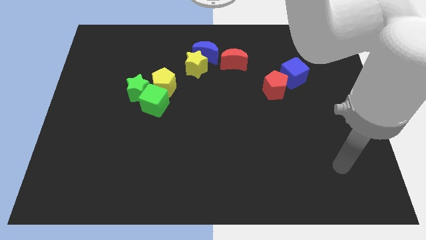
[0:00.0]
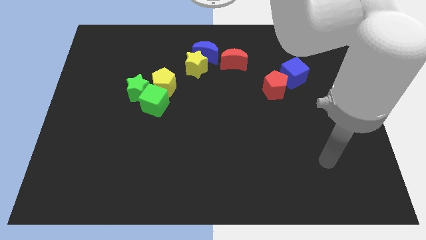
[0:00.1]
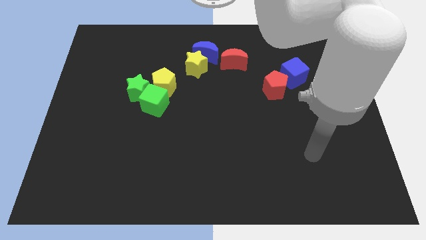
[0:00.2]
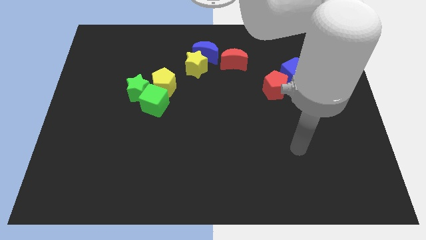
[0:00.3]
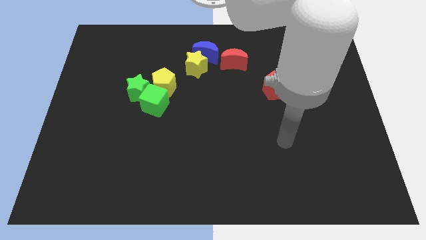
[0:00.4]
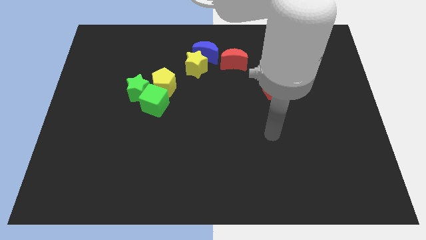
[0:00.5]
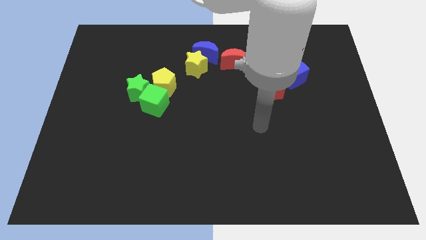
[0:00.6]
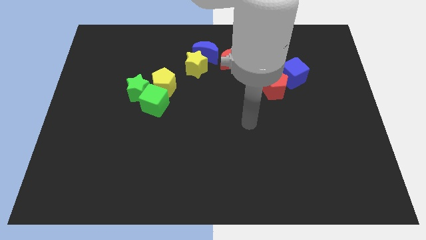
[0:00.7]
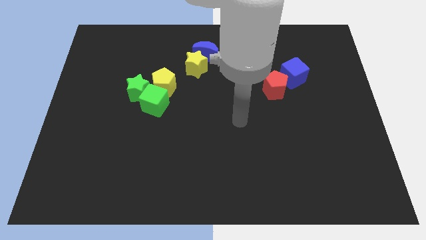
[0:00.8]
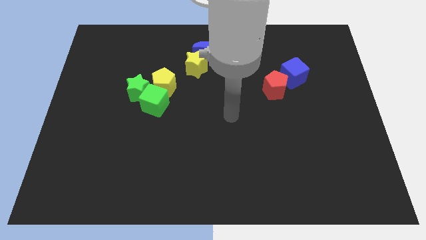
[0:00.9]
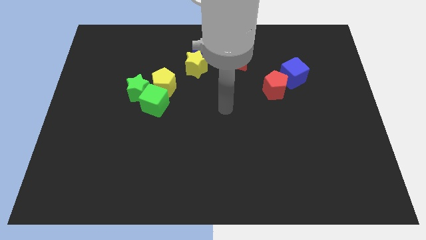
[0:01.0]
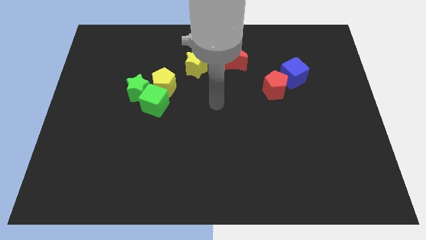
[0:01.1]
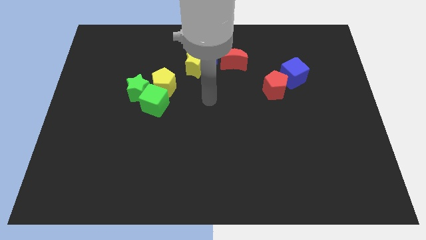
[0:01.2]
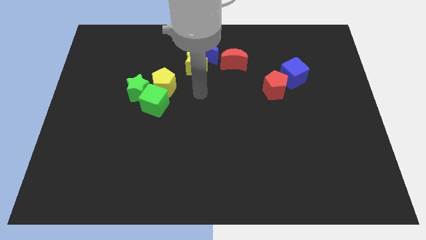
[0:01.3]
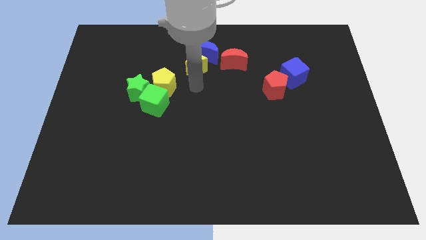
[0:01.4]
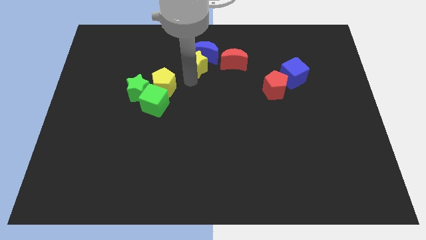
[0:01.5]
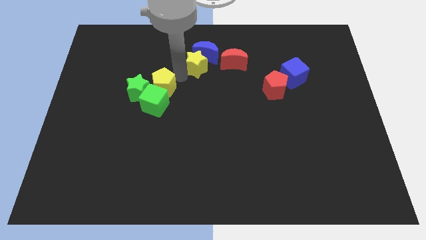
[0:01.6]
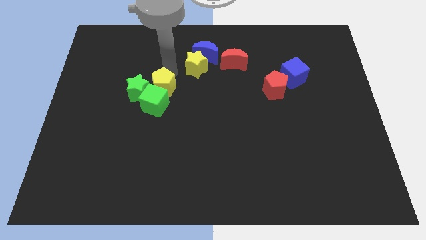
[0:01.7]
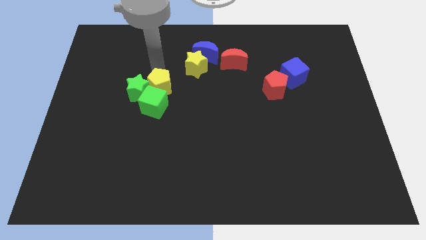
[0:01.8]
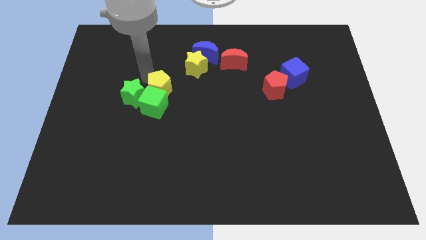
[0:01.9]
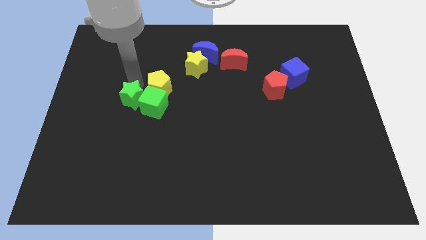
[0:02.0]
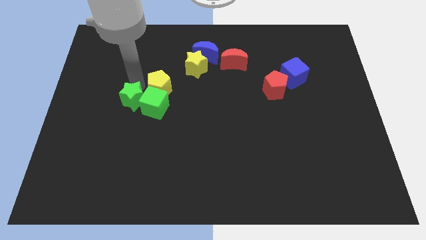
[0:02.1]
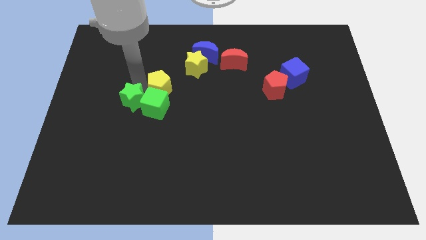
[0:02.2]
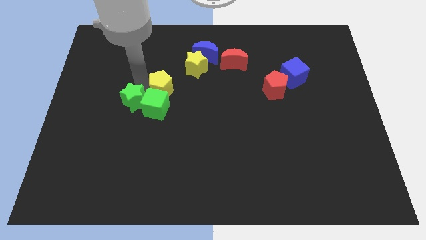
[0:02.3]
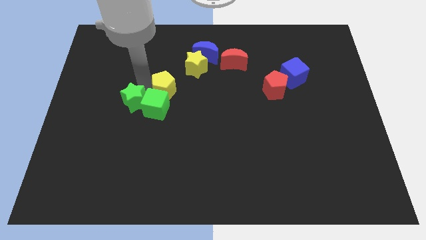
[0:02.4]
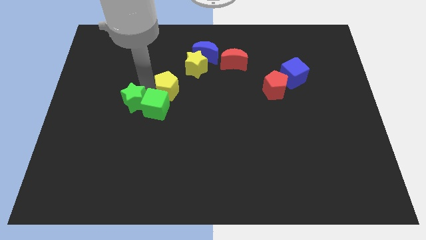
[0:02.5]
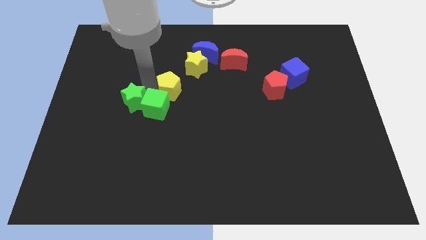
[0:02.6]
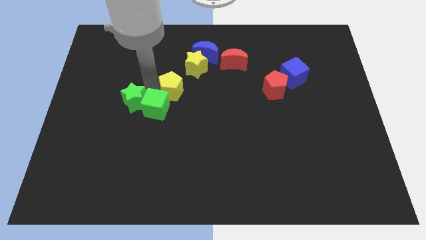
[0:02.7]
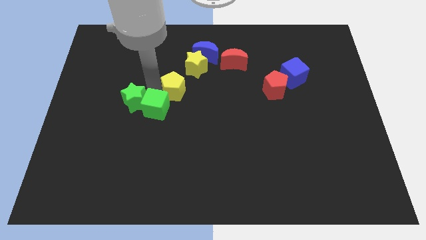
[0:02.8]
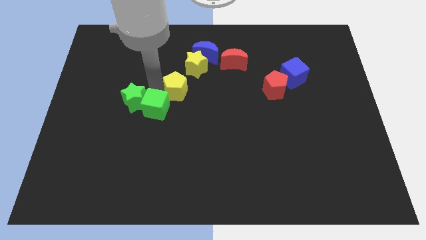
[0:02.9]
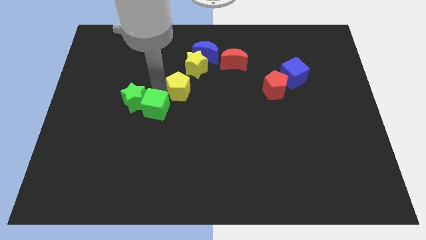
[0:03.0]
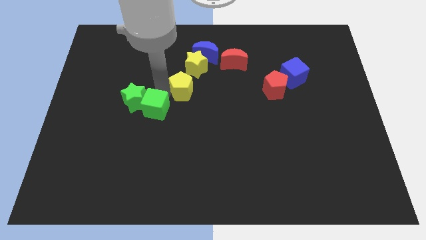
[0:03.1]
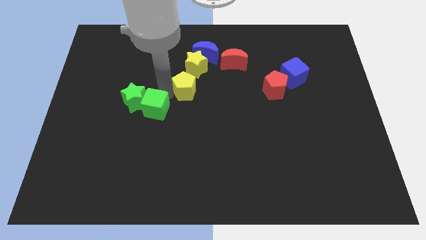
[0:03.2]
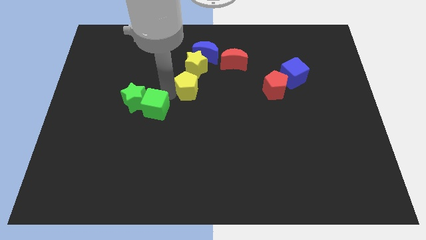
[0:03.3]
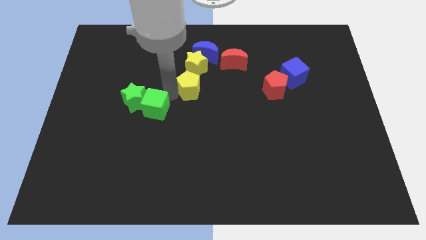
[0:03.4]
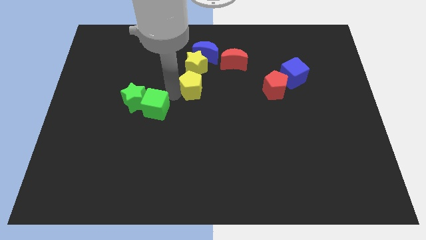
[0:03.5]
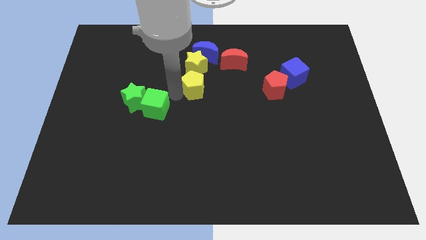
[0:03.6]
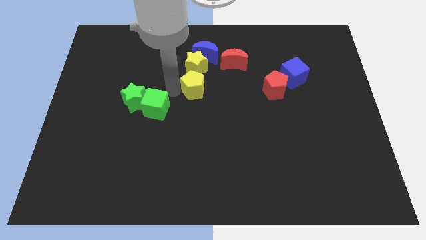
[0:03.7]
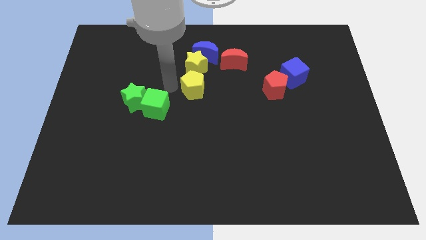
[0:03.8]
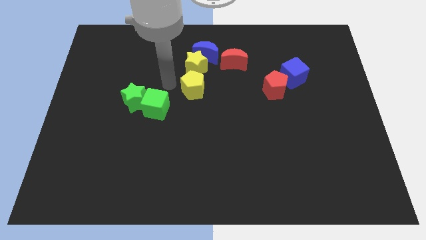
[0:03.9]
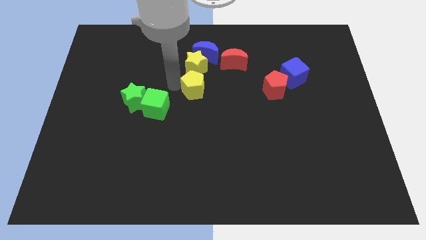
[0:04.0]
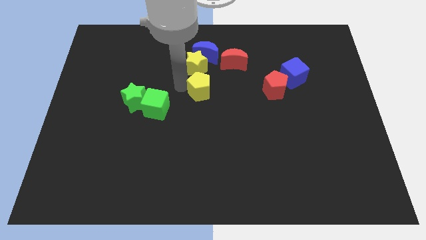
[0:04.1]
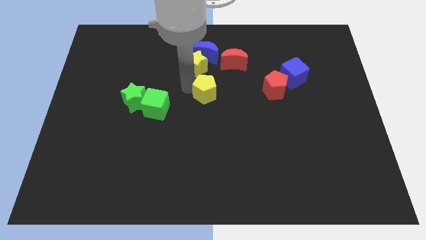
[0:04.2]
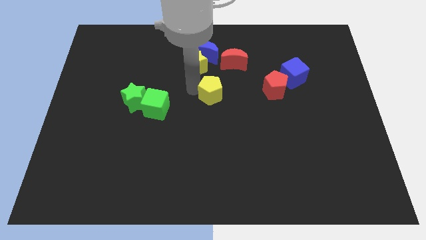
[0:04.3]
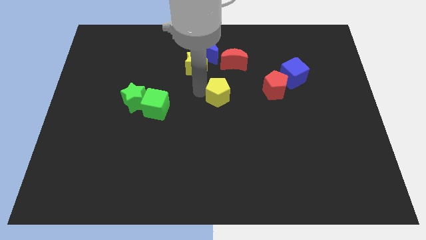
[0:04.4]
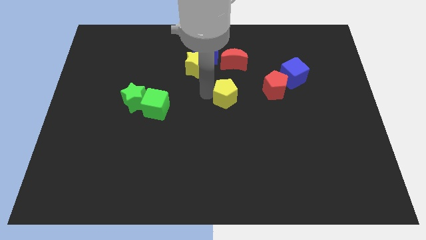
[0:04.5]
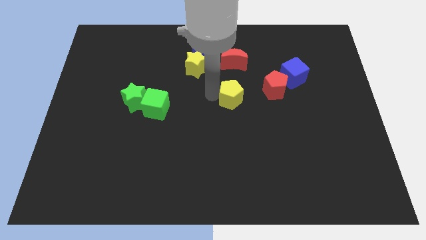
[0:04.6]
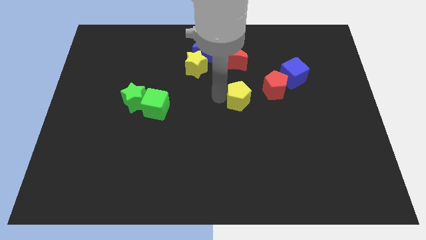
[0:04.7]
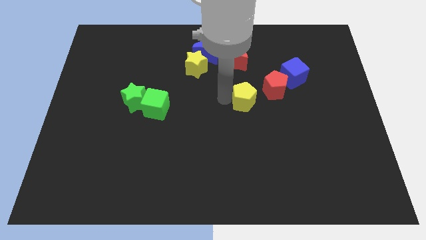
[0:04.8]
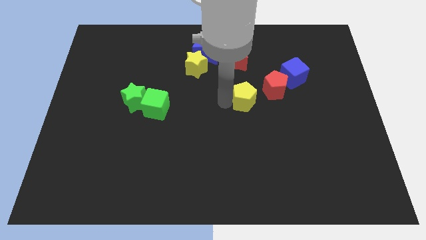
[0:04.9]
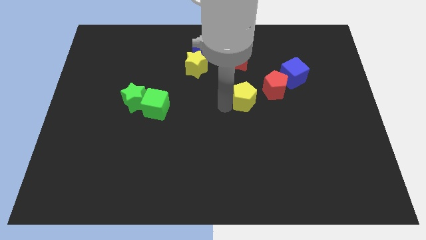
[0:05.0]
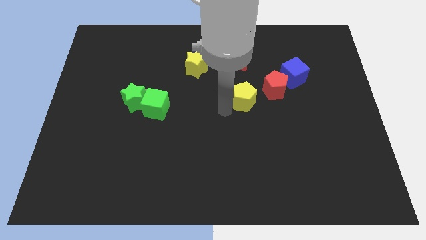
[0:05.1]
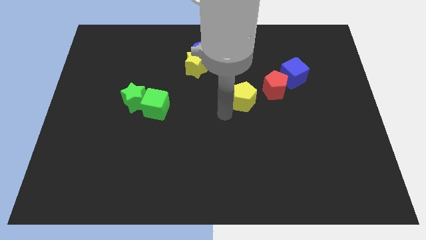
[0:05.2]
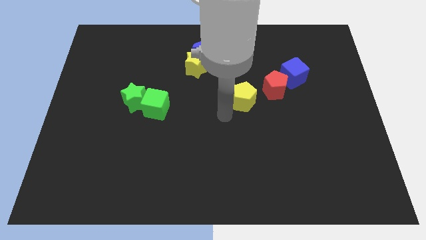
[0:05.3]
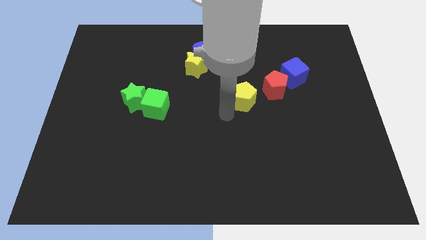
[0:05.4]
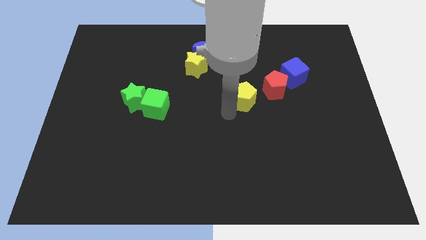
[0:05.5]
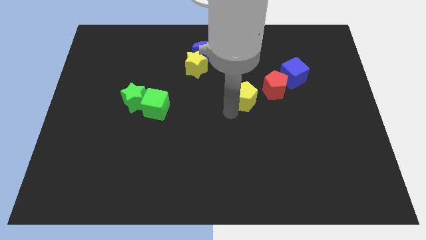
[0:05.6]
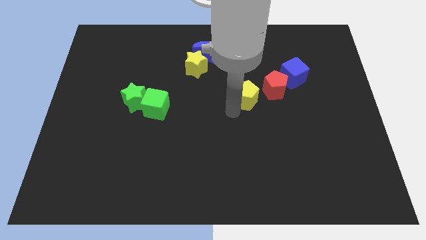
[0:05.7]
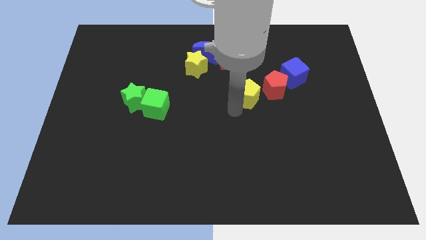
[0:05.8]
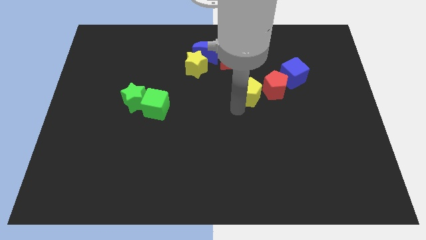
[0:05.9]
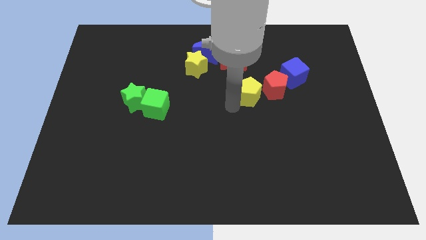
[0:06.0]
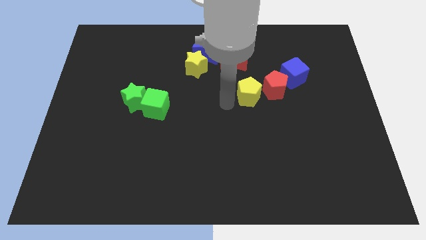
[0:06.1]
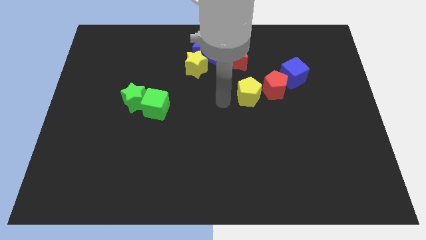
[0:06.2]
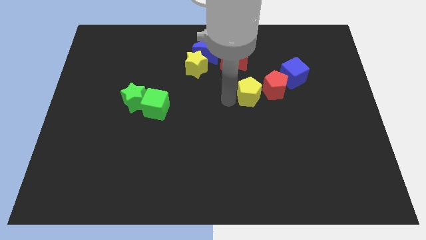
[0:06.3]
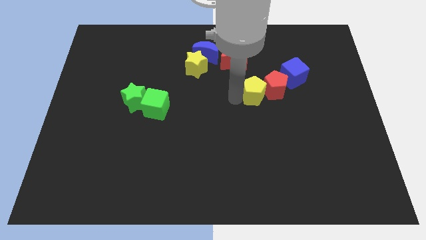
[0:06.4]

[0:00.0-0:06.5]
push the yellow pentagon to the red pentagon

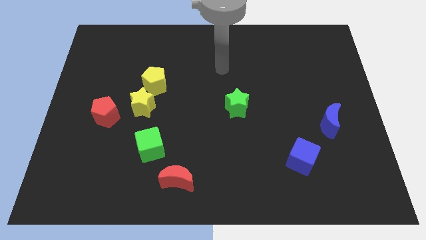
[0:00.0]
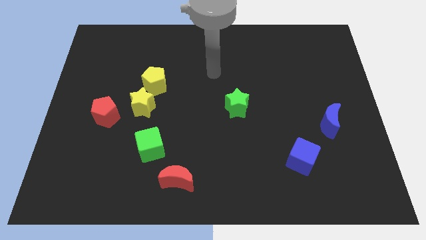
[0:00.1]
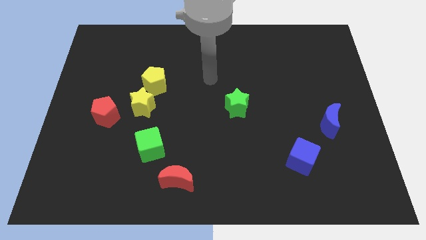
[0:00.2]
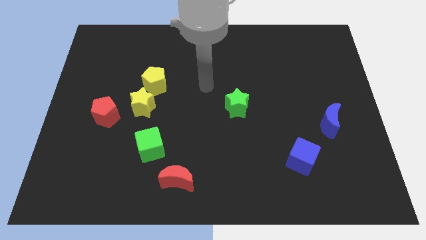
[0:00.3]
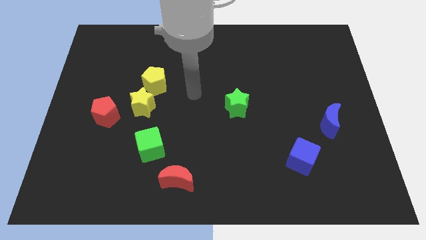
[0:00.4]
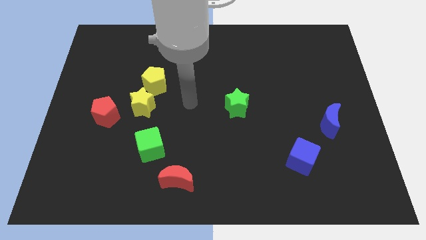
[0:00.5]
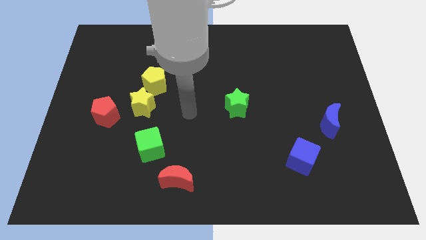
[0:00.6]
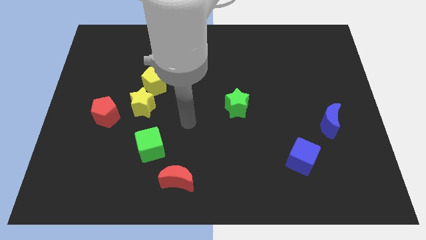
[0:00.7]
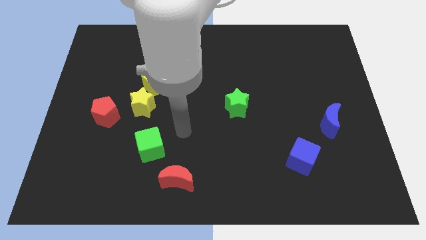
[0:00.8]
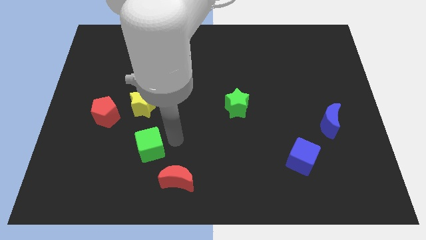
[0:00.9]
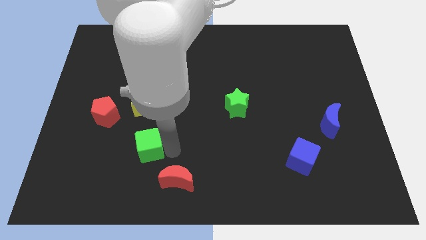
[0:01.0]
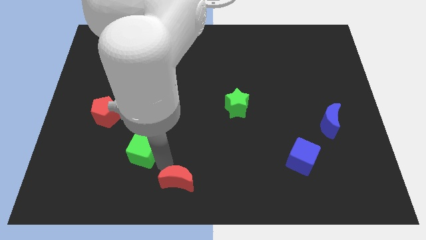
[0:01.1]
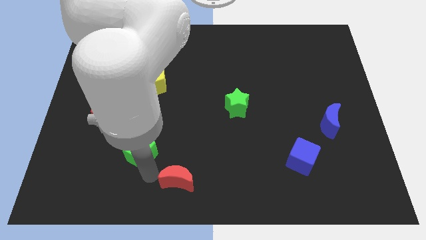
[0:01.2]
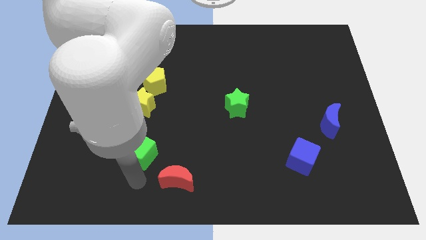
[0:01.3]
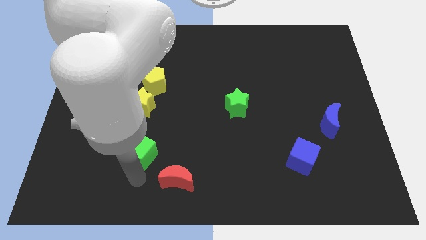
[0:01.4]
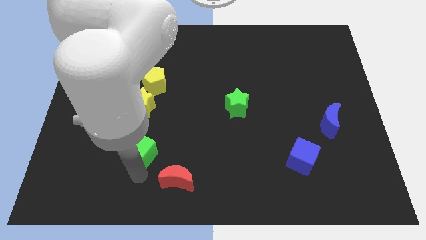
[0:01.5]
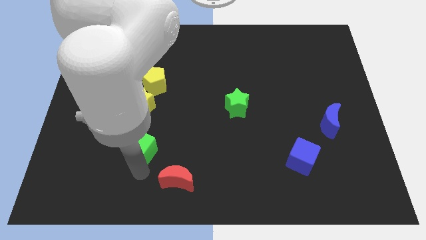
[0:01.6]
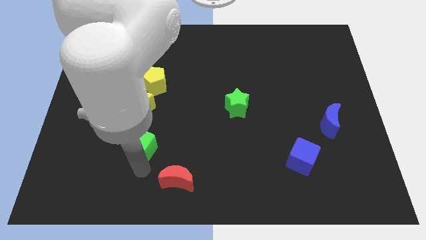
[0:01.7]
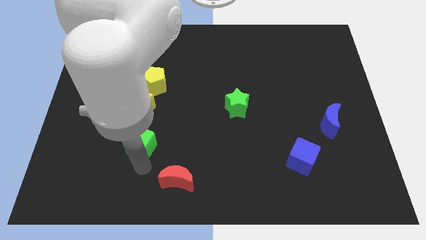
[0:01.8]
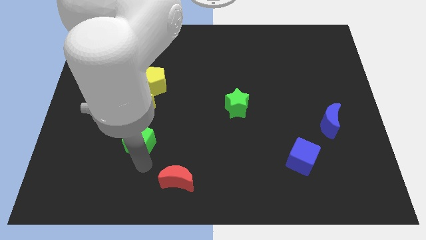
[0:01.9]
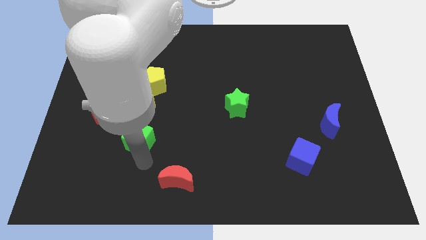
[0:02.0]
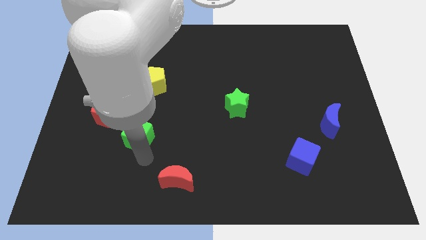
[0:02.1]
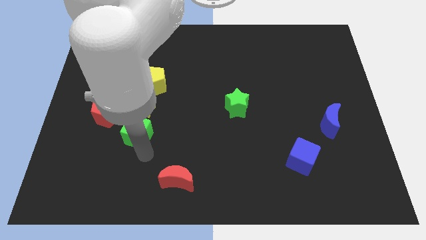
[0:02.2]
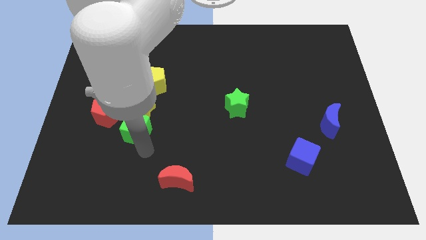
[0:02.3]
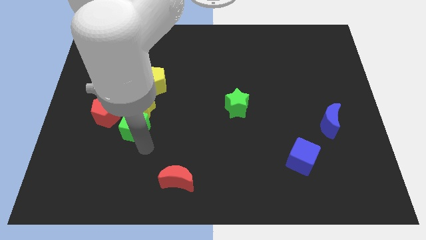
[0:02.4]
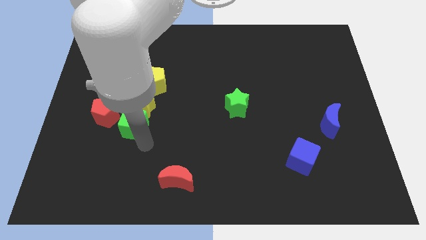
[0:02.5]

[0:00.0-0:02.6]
push the green cube to the yellow star
